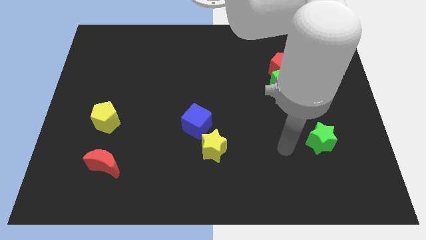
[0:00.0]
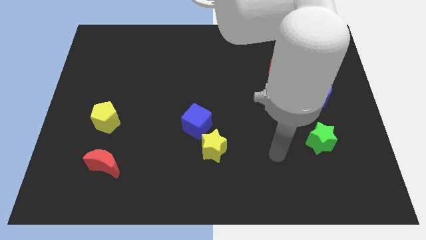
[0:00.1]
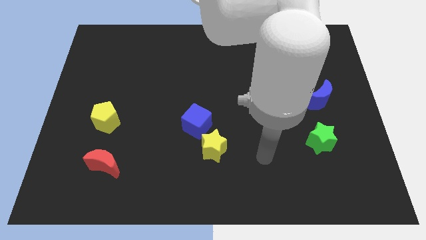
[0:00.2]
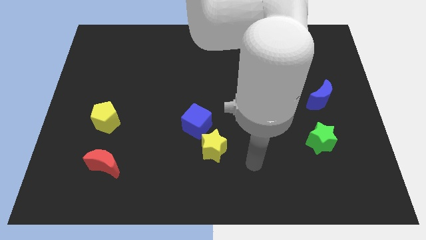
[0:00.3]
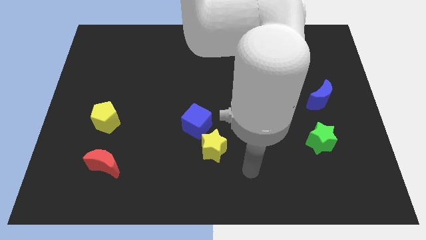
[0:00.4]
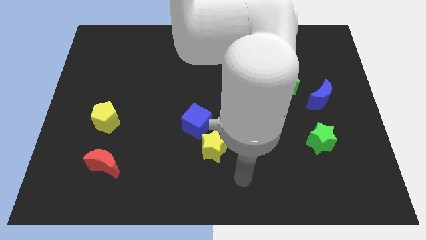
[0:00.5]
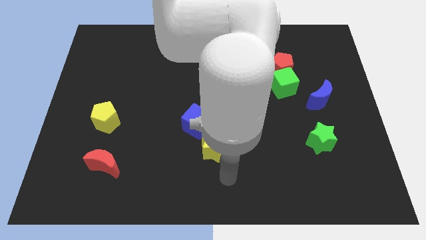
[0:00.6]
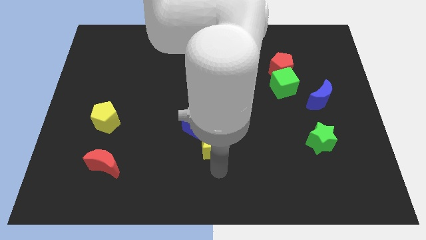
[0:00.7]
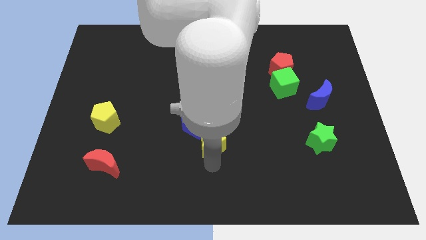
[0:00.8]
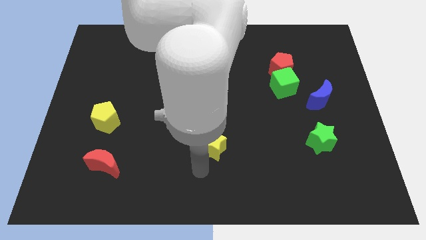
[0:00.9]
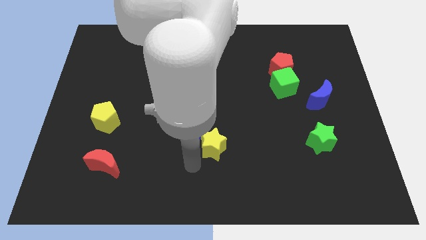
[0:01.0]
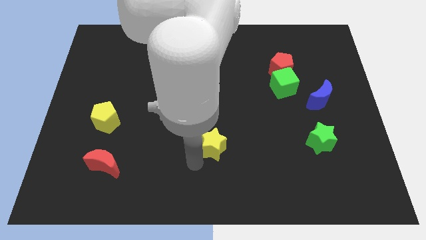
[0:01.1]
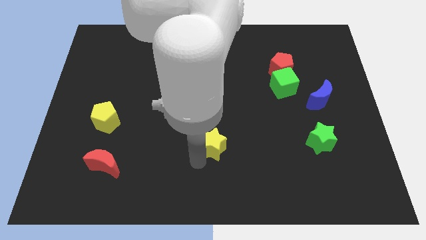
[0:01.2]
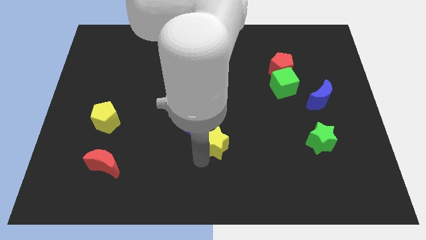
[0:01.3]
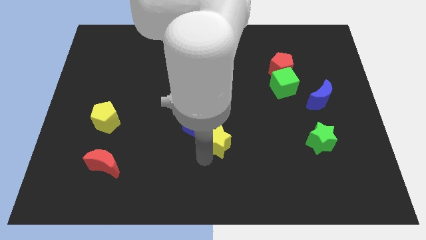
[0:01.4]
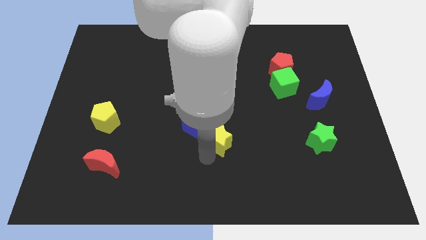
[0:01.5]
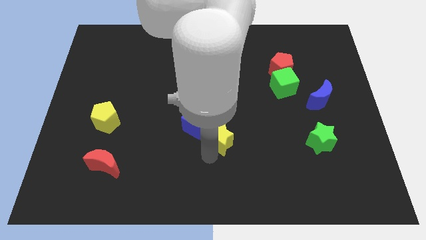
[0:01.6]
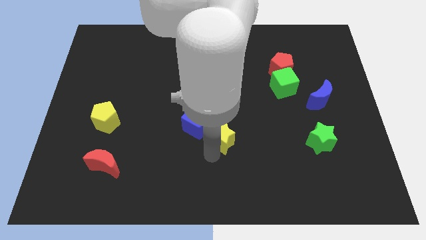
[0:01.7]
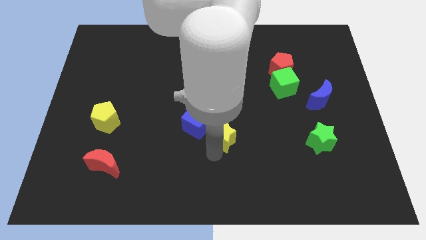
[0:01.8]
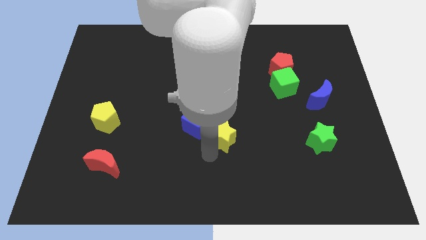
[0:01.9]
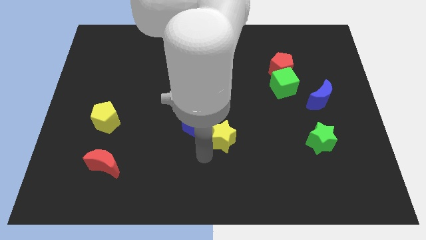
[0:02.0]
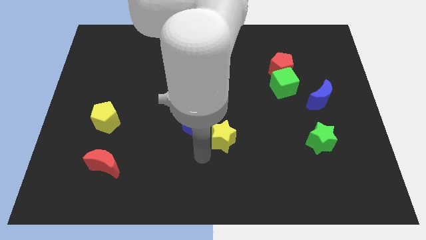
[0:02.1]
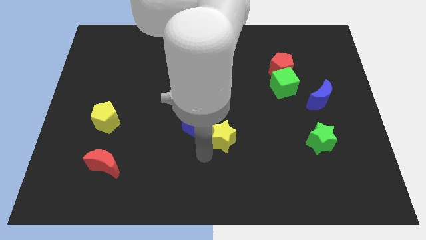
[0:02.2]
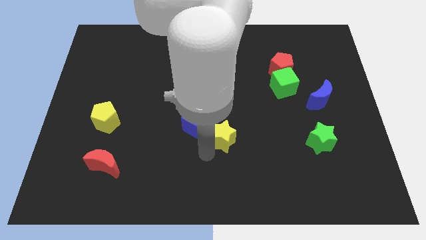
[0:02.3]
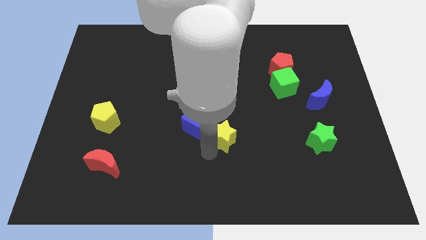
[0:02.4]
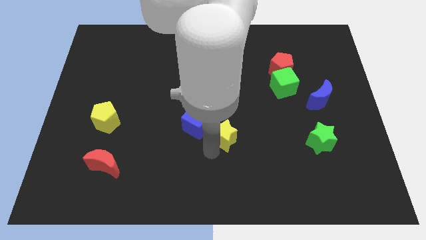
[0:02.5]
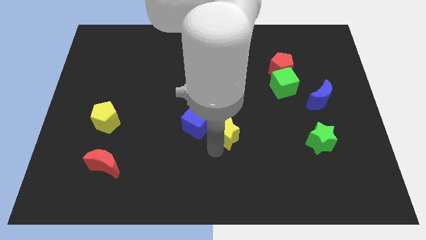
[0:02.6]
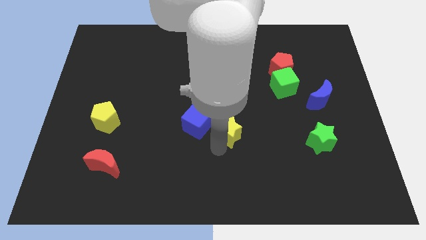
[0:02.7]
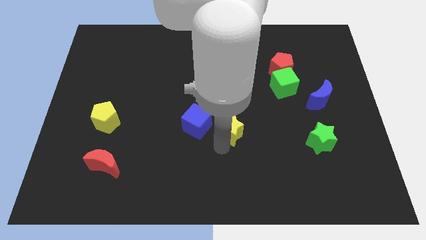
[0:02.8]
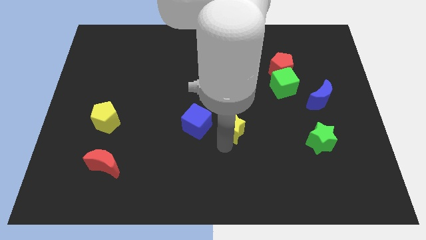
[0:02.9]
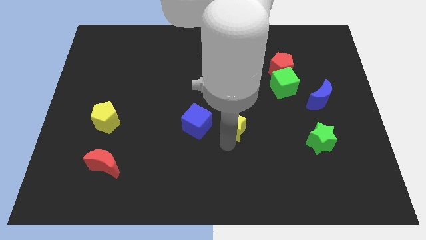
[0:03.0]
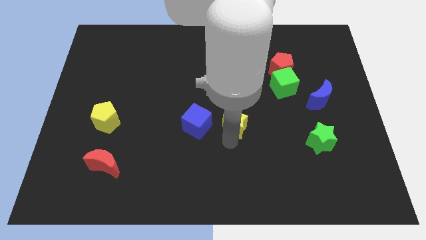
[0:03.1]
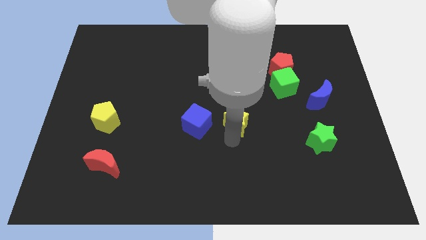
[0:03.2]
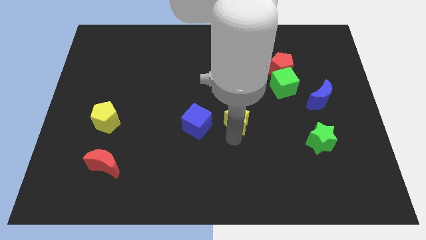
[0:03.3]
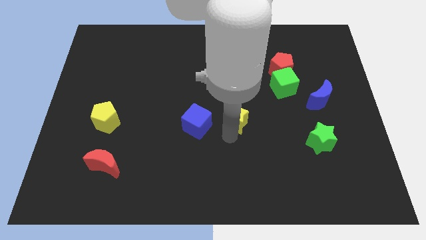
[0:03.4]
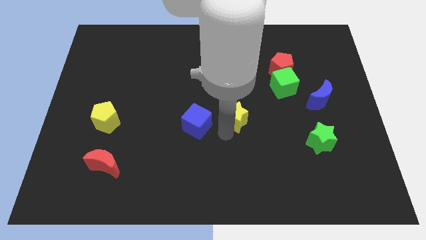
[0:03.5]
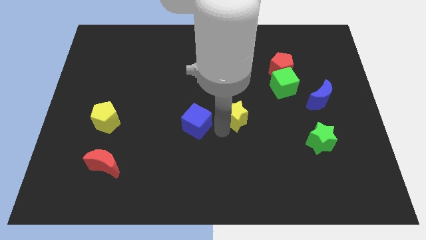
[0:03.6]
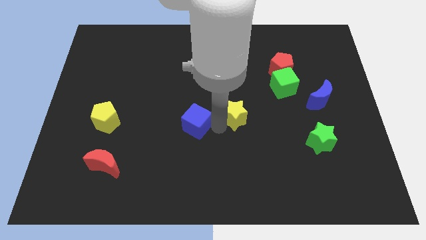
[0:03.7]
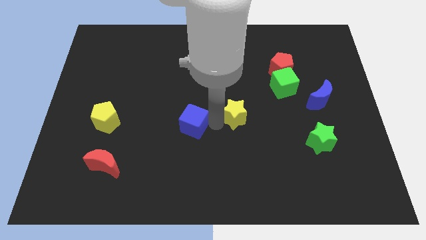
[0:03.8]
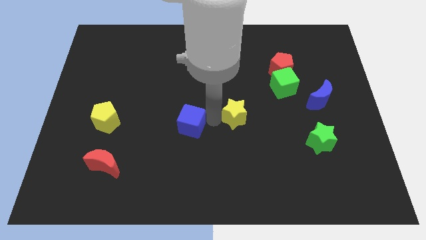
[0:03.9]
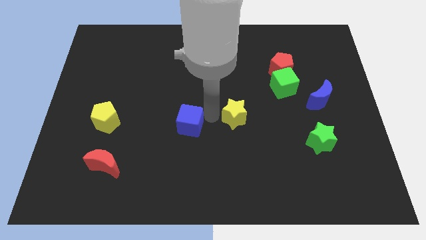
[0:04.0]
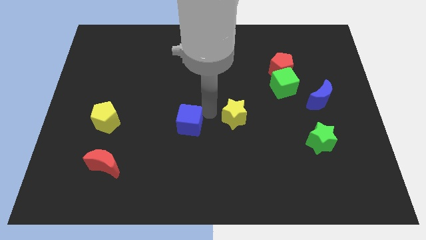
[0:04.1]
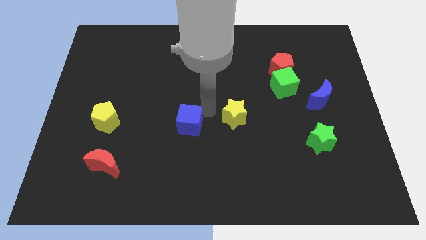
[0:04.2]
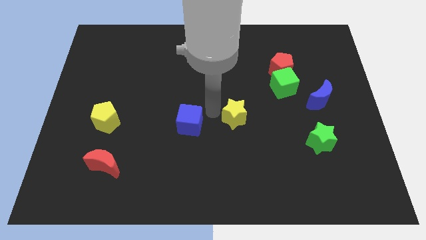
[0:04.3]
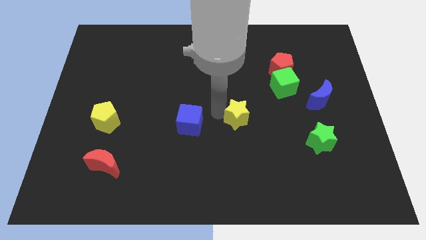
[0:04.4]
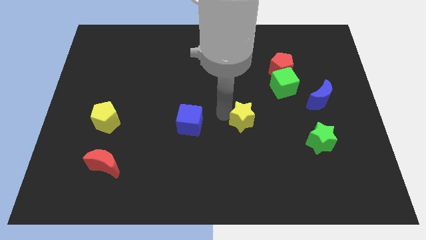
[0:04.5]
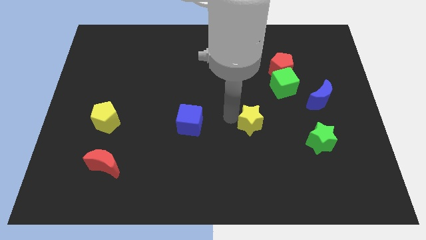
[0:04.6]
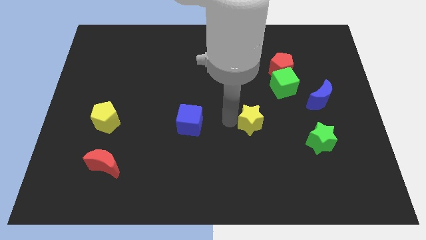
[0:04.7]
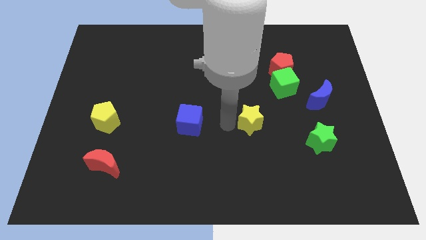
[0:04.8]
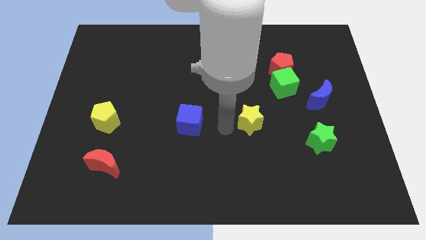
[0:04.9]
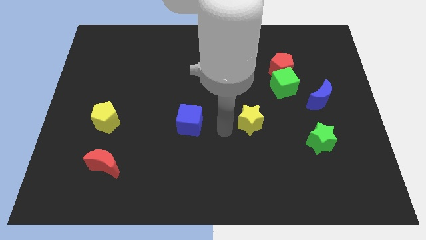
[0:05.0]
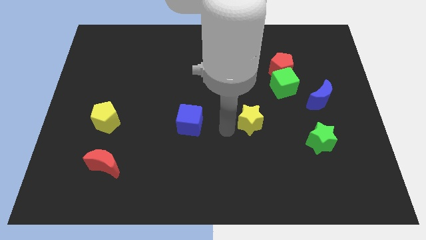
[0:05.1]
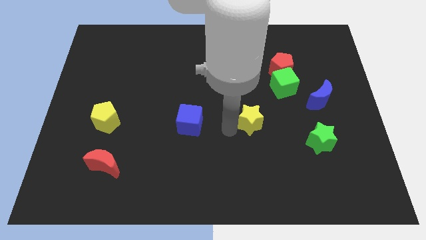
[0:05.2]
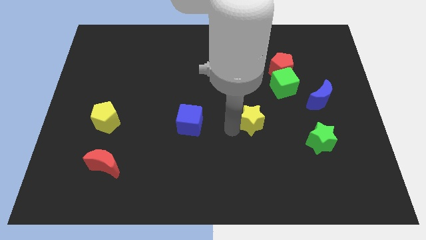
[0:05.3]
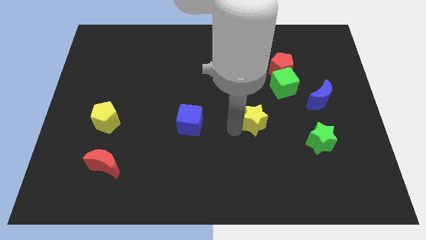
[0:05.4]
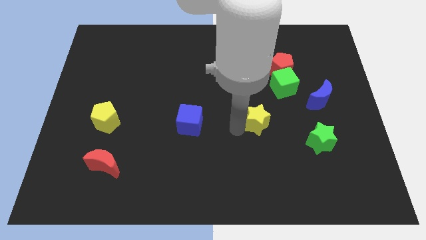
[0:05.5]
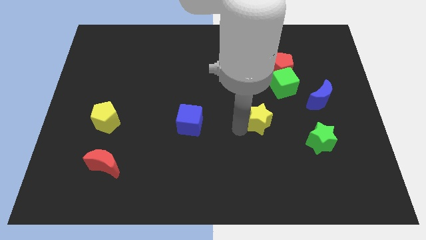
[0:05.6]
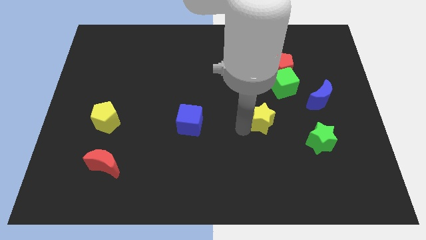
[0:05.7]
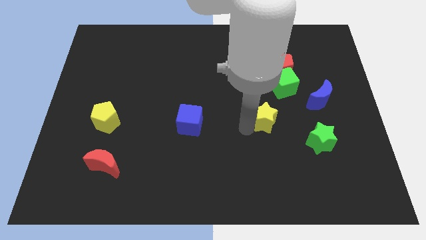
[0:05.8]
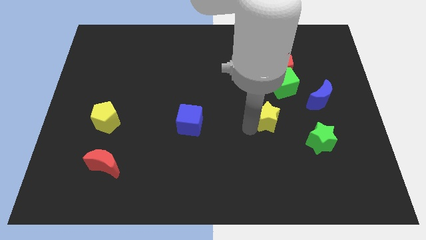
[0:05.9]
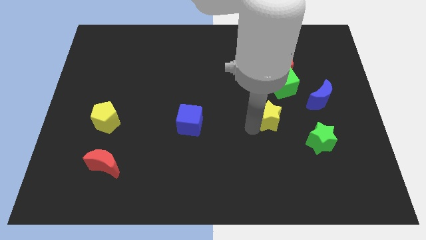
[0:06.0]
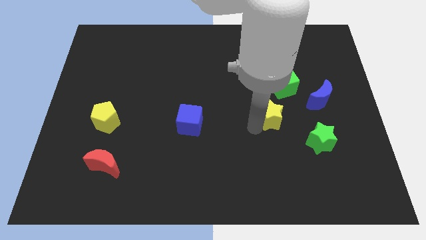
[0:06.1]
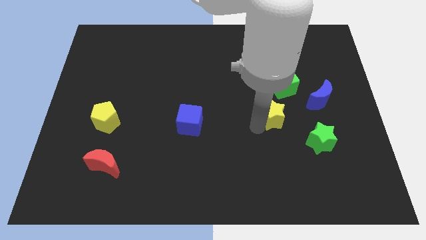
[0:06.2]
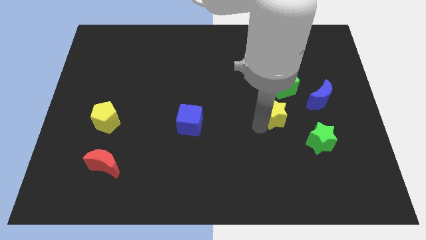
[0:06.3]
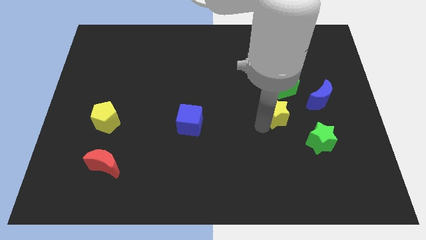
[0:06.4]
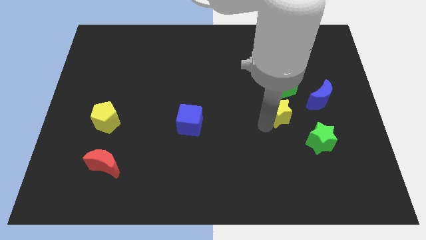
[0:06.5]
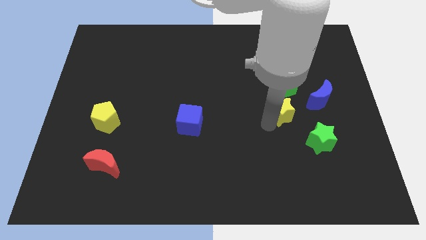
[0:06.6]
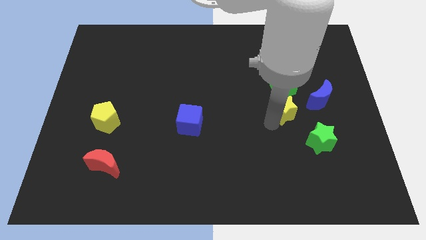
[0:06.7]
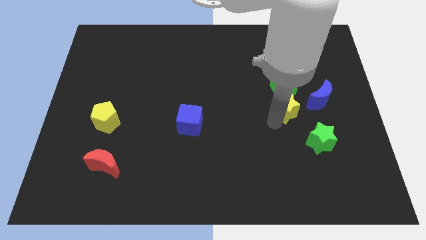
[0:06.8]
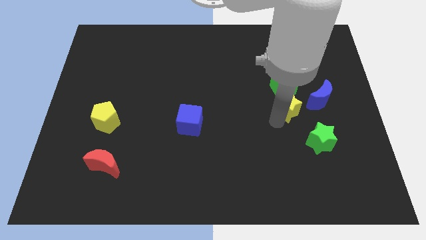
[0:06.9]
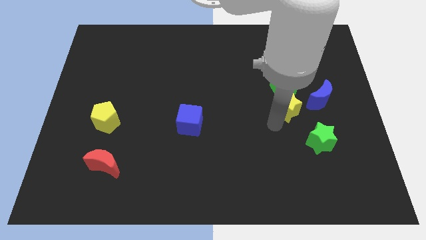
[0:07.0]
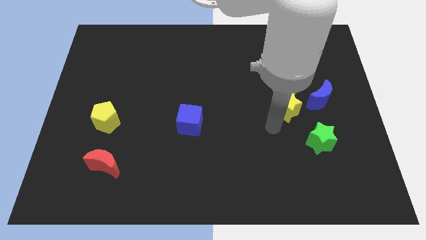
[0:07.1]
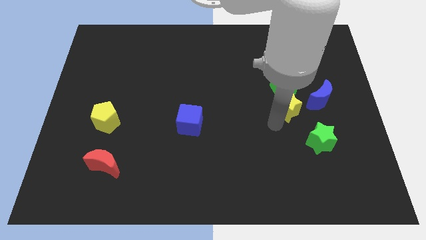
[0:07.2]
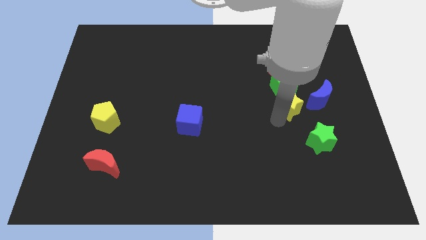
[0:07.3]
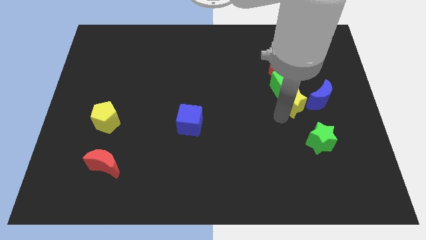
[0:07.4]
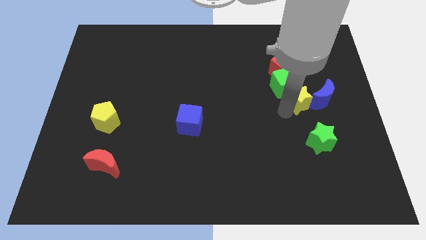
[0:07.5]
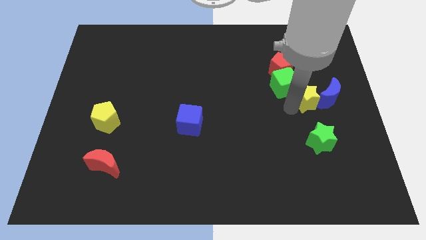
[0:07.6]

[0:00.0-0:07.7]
move the yellow star diagonally down and to the right of the red pentagon
